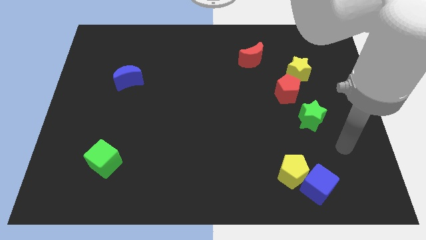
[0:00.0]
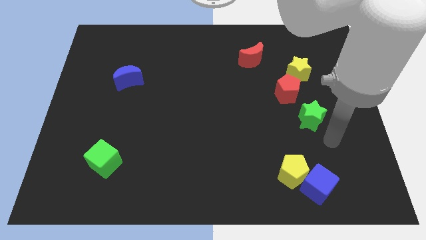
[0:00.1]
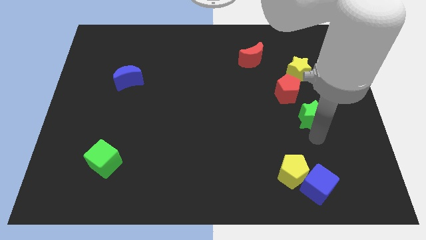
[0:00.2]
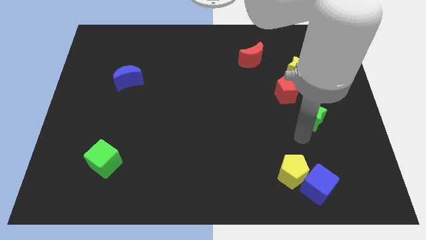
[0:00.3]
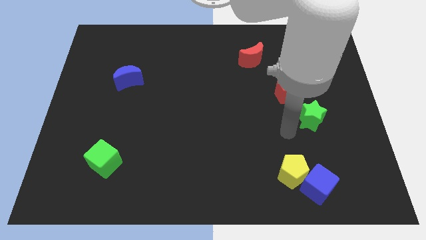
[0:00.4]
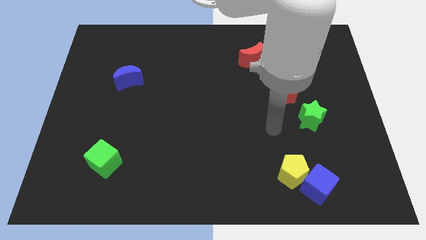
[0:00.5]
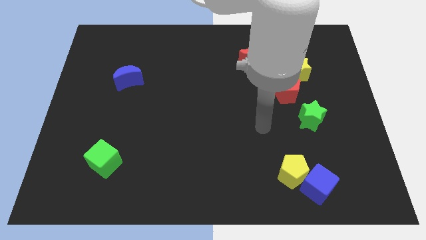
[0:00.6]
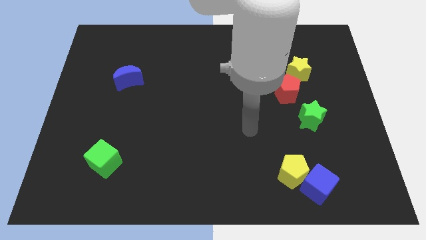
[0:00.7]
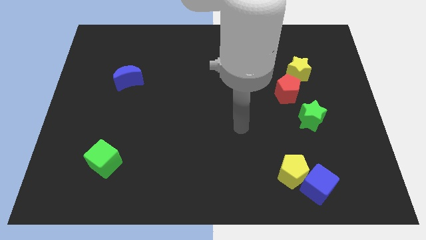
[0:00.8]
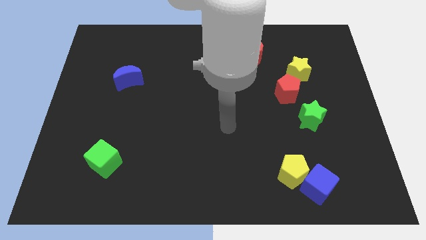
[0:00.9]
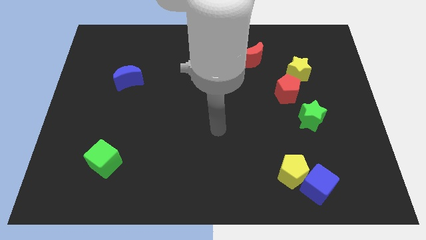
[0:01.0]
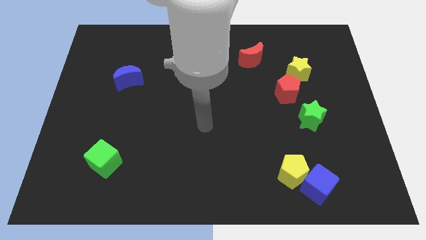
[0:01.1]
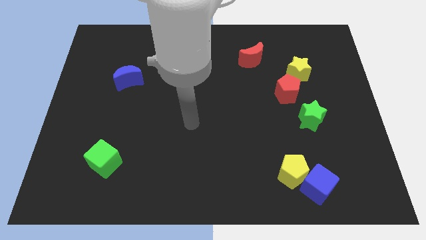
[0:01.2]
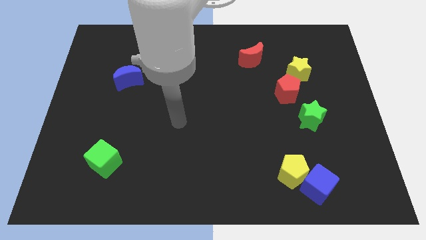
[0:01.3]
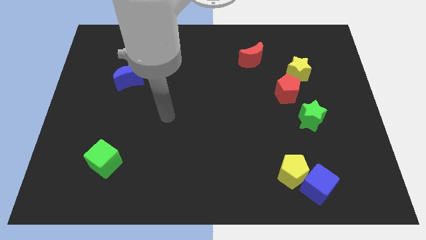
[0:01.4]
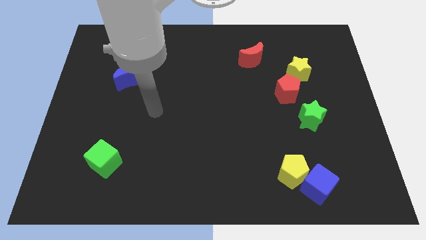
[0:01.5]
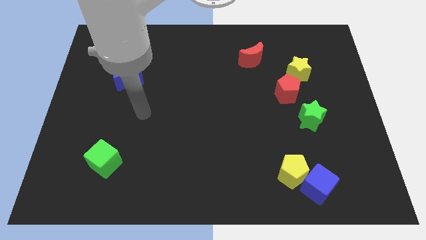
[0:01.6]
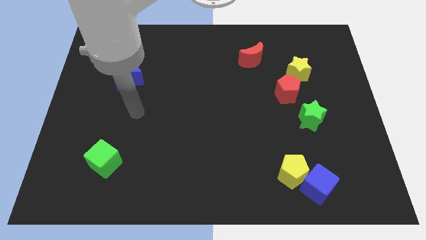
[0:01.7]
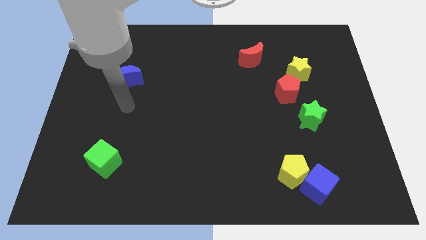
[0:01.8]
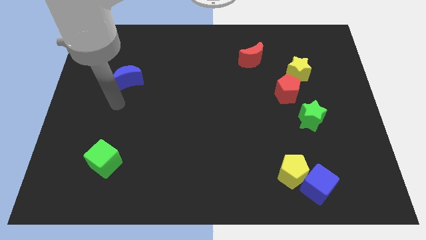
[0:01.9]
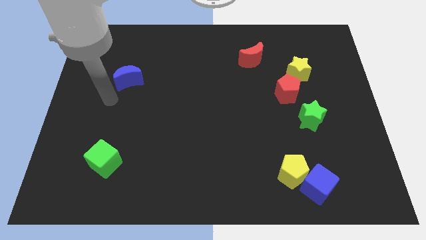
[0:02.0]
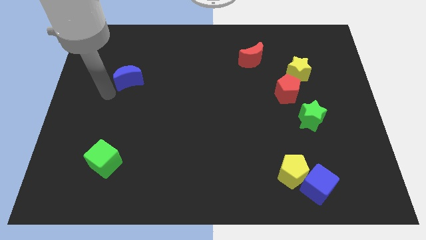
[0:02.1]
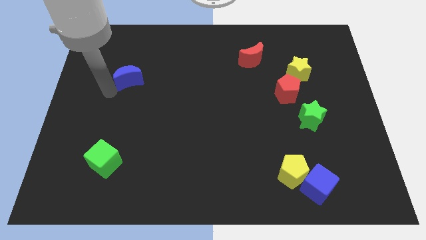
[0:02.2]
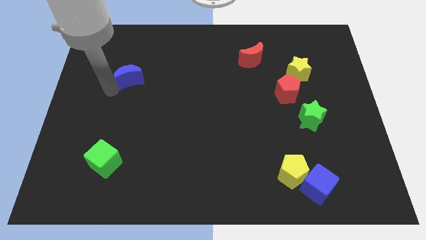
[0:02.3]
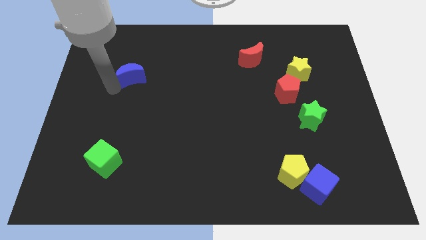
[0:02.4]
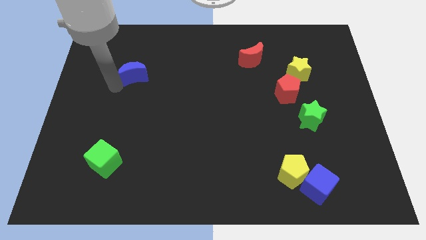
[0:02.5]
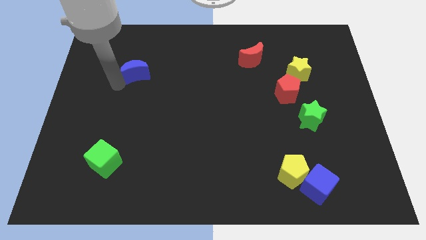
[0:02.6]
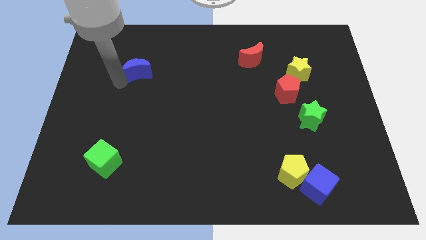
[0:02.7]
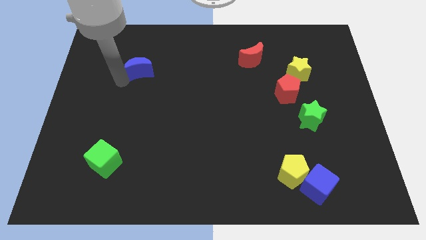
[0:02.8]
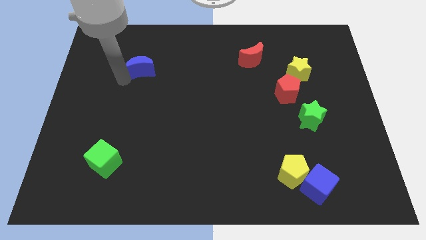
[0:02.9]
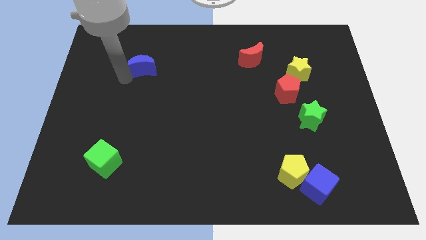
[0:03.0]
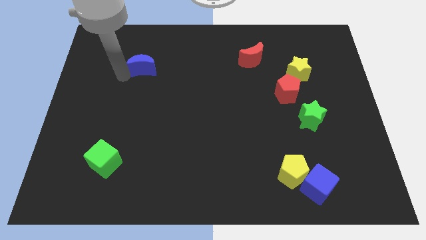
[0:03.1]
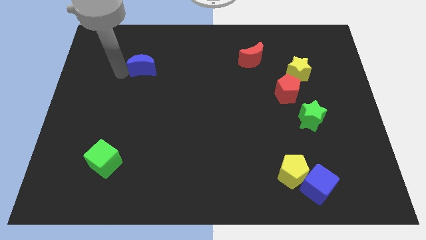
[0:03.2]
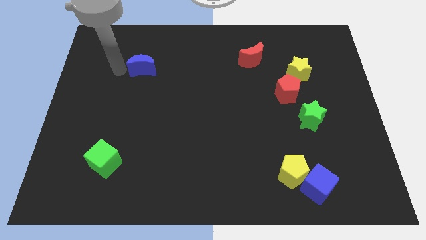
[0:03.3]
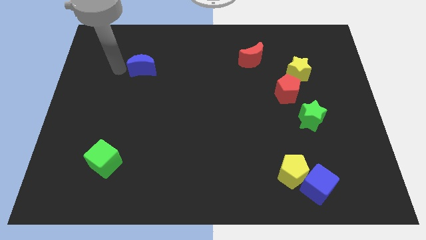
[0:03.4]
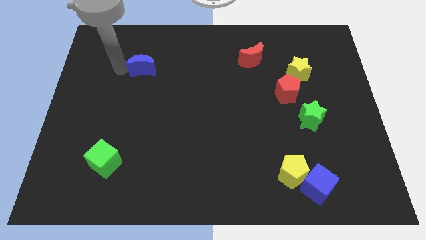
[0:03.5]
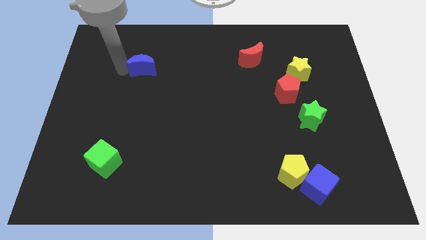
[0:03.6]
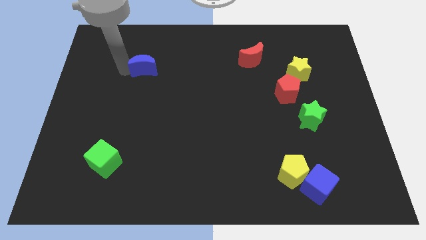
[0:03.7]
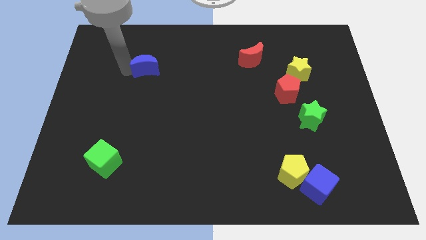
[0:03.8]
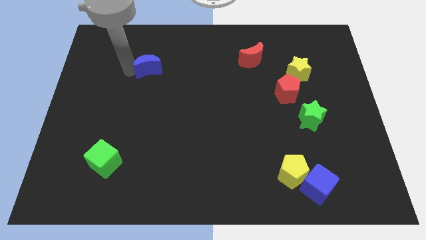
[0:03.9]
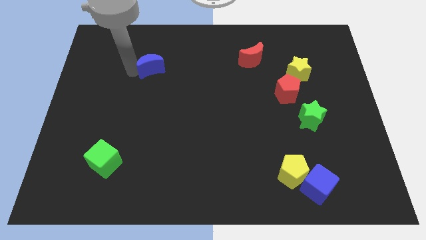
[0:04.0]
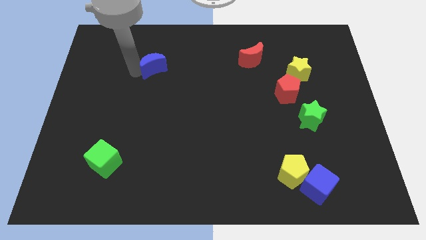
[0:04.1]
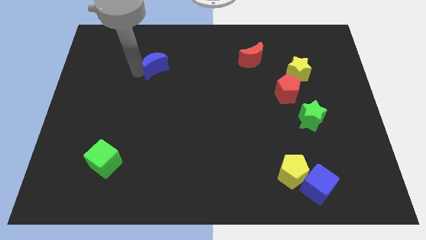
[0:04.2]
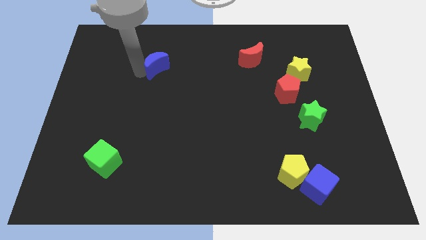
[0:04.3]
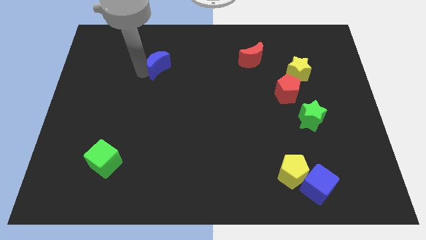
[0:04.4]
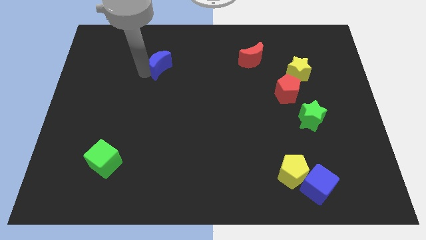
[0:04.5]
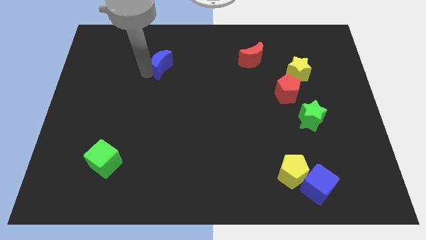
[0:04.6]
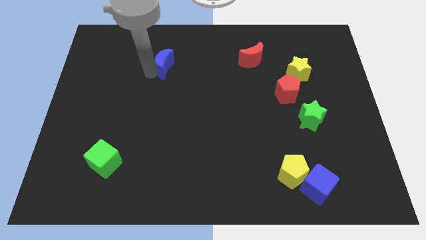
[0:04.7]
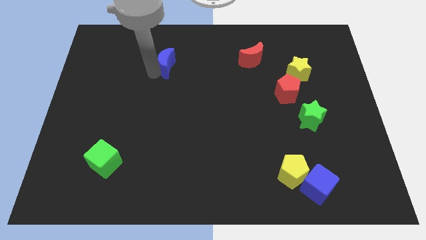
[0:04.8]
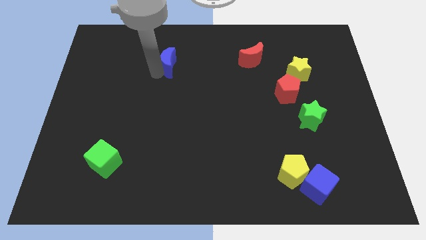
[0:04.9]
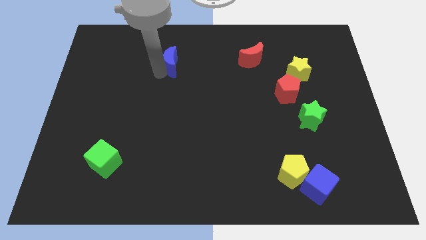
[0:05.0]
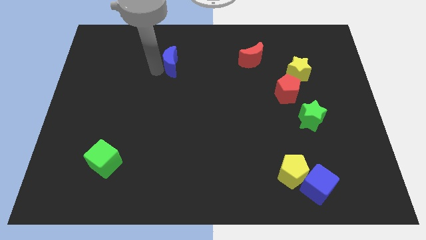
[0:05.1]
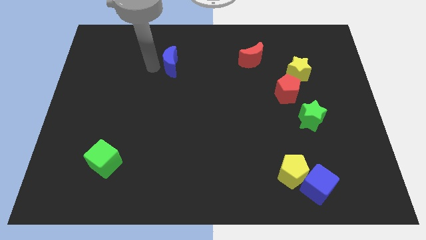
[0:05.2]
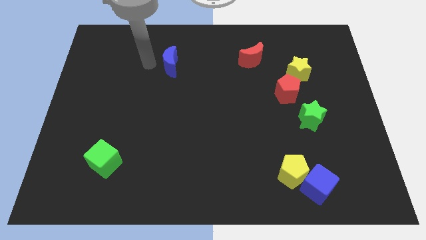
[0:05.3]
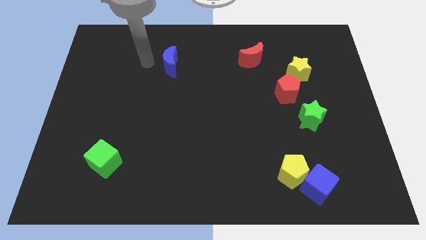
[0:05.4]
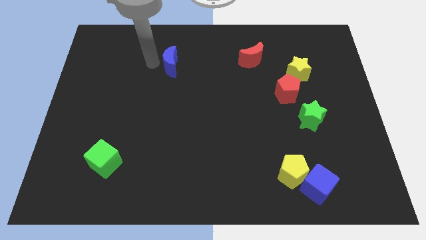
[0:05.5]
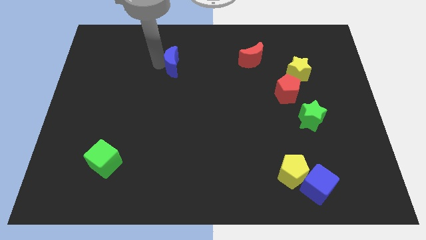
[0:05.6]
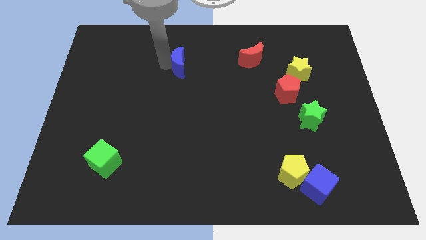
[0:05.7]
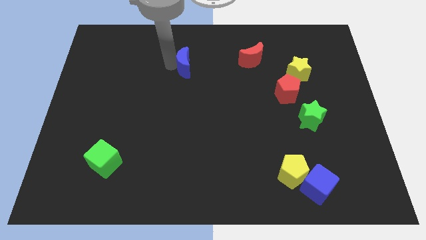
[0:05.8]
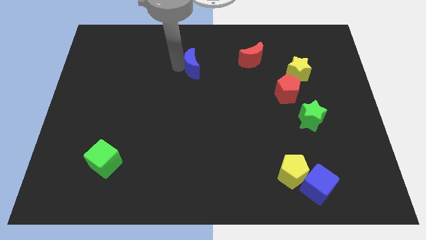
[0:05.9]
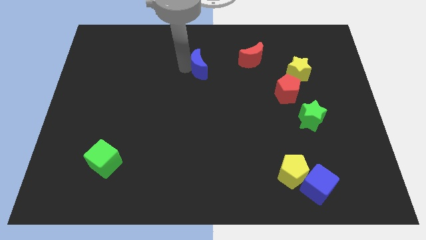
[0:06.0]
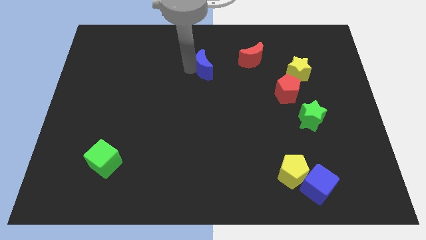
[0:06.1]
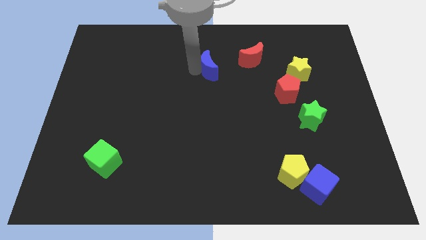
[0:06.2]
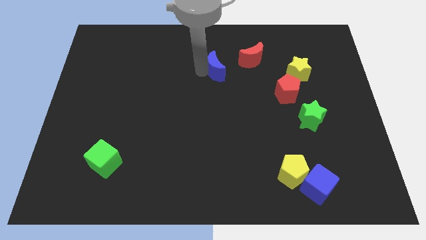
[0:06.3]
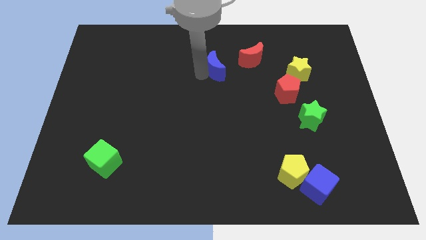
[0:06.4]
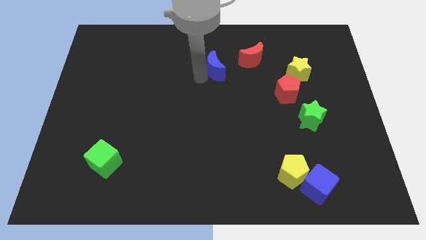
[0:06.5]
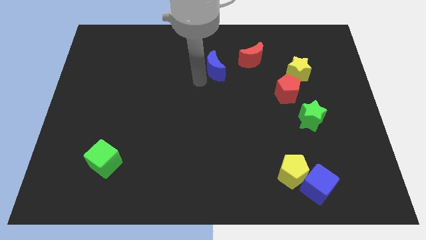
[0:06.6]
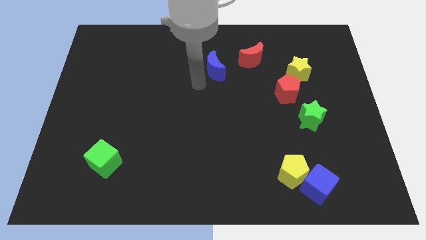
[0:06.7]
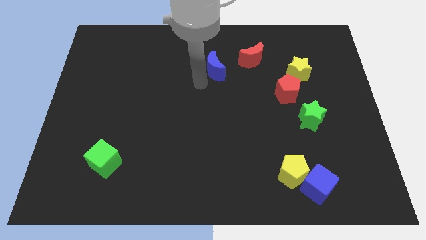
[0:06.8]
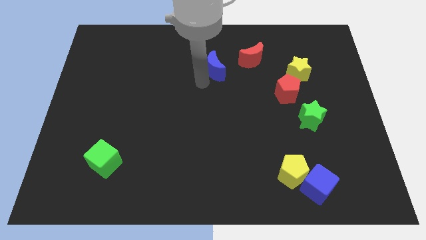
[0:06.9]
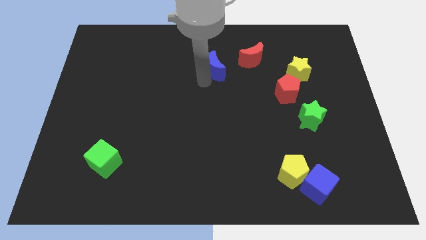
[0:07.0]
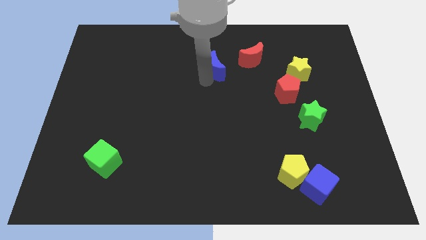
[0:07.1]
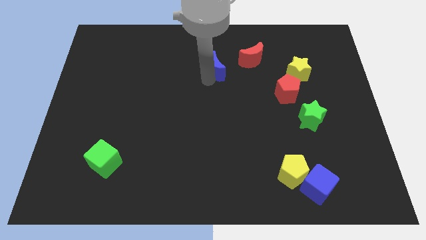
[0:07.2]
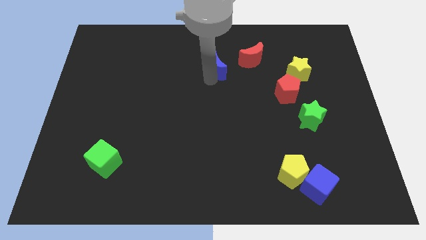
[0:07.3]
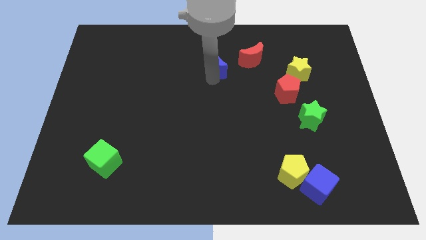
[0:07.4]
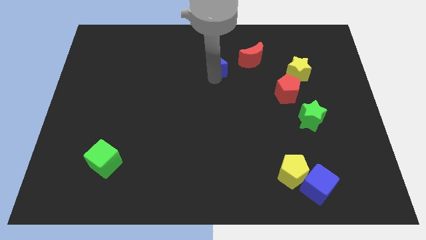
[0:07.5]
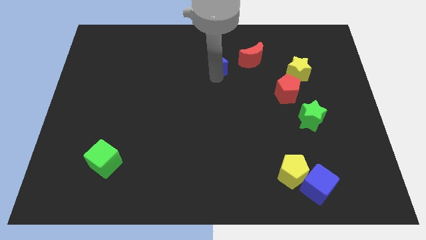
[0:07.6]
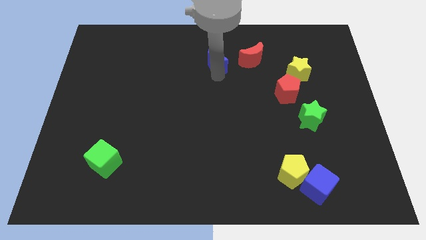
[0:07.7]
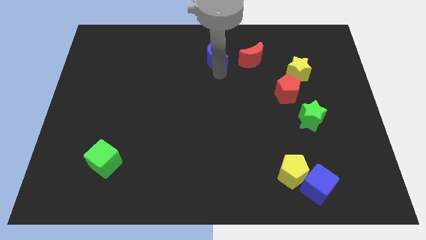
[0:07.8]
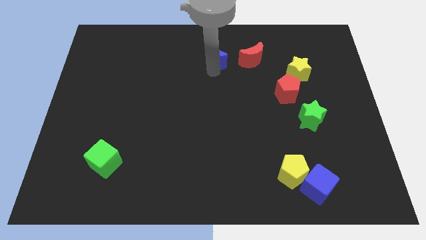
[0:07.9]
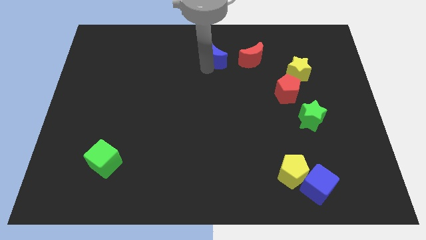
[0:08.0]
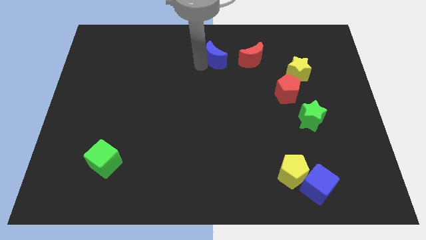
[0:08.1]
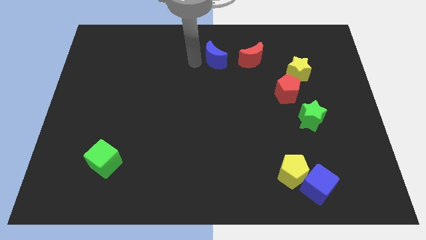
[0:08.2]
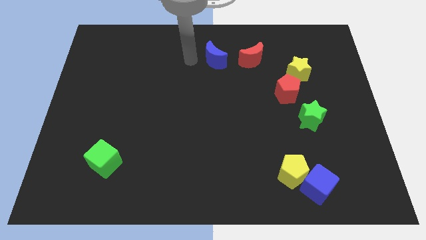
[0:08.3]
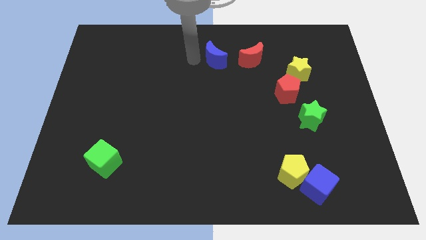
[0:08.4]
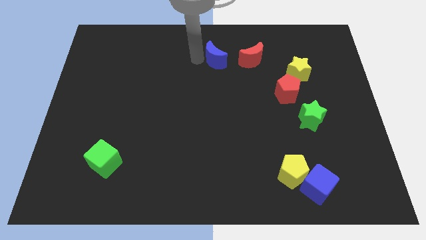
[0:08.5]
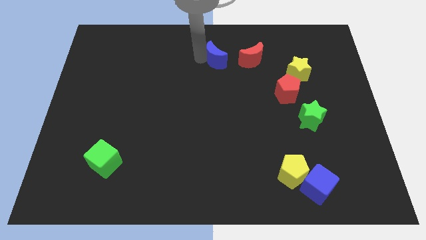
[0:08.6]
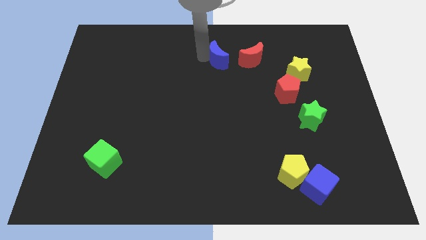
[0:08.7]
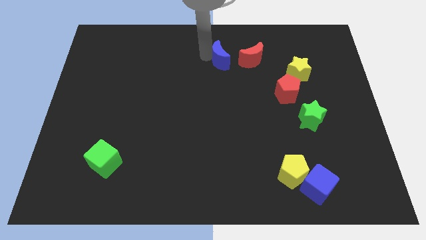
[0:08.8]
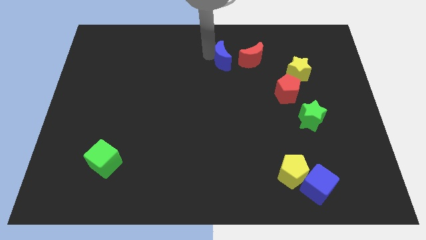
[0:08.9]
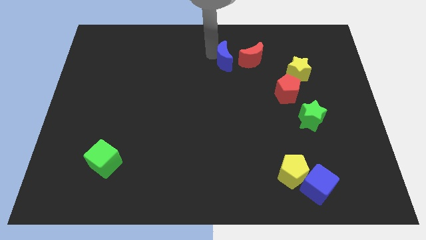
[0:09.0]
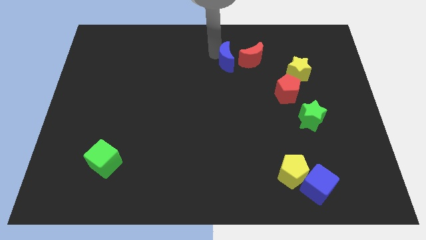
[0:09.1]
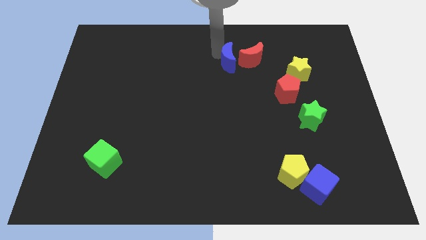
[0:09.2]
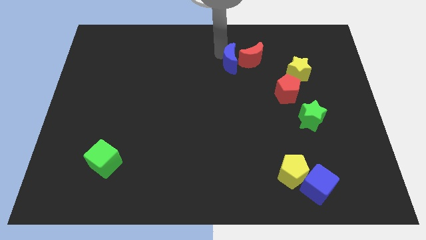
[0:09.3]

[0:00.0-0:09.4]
put the blue moon close to the red moon
